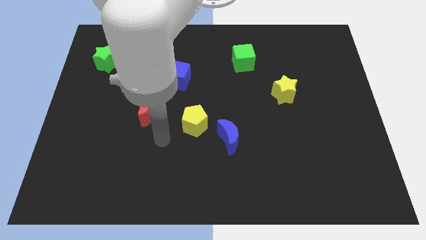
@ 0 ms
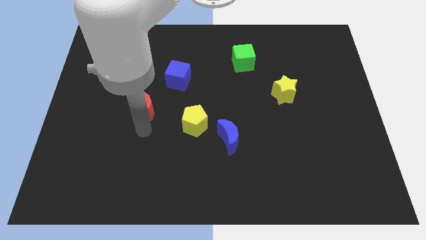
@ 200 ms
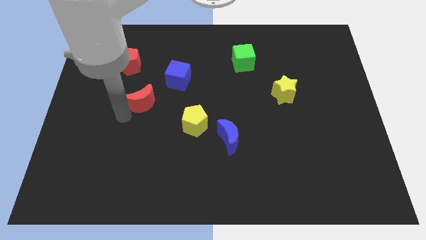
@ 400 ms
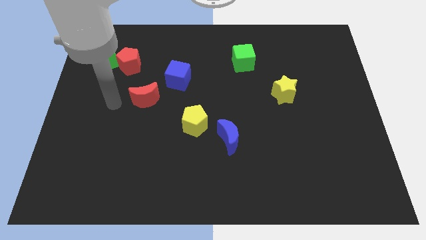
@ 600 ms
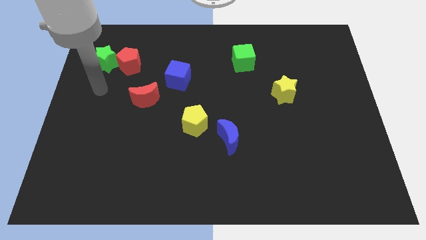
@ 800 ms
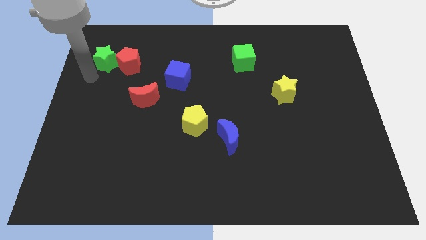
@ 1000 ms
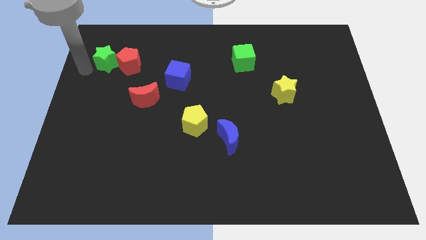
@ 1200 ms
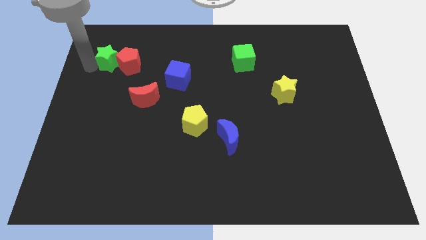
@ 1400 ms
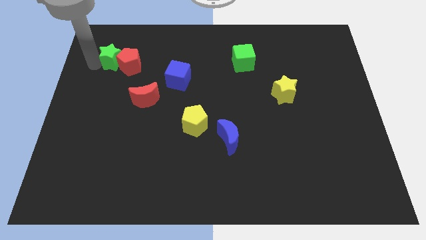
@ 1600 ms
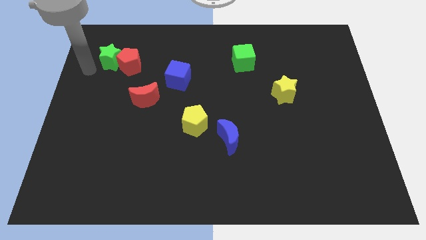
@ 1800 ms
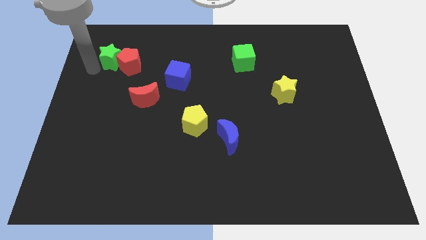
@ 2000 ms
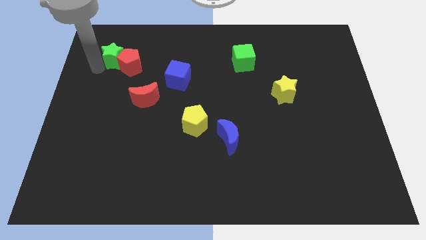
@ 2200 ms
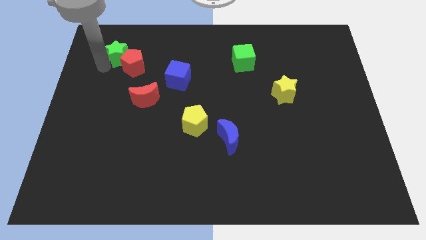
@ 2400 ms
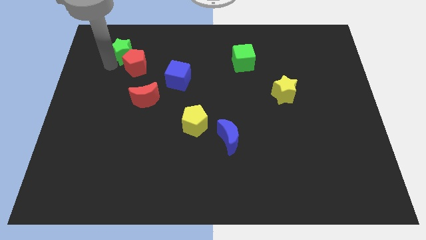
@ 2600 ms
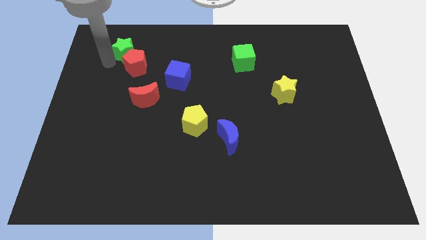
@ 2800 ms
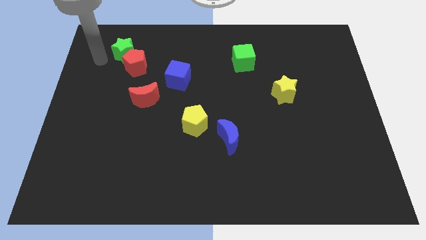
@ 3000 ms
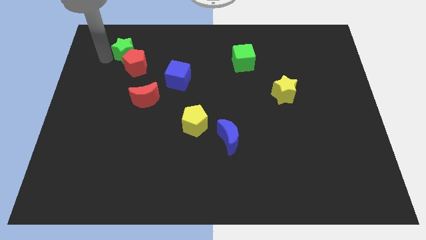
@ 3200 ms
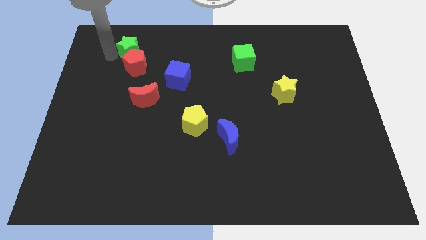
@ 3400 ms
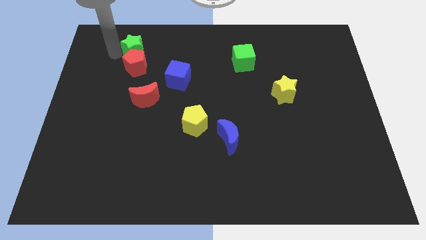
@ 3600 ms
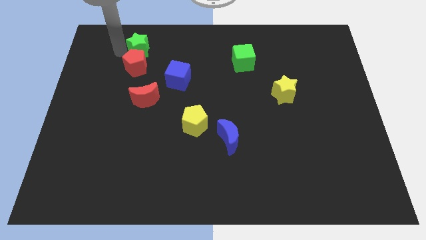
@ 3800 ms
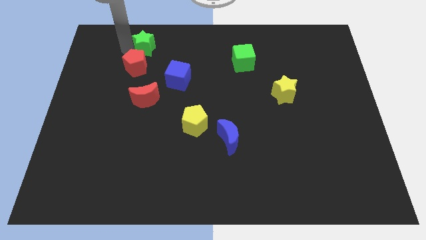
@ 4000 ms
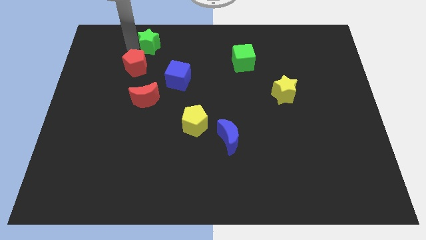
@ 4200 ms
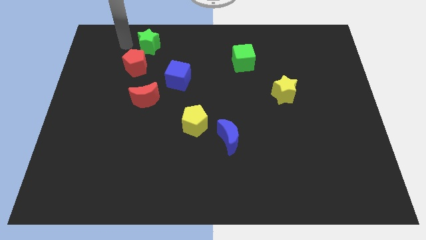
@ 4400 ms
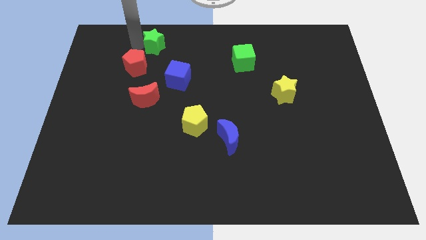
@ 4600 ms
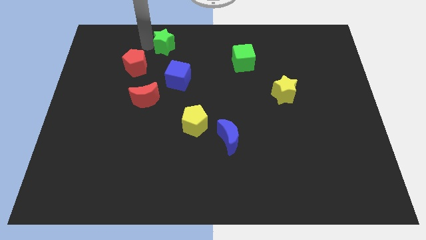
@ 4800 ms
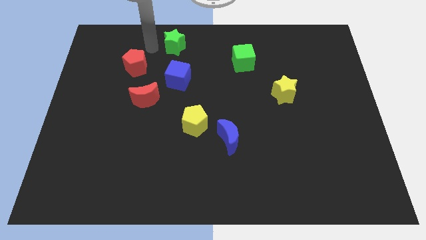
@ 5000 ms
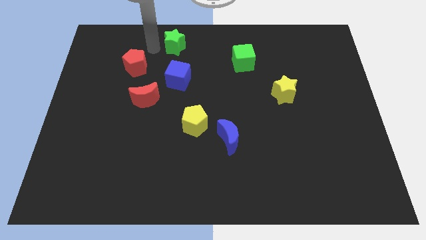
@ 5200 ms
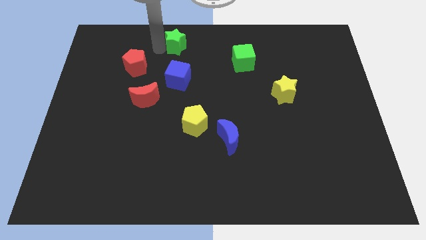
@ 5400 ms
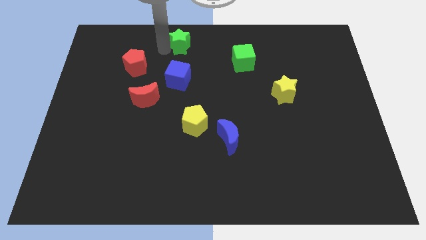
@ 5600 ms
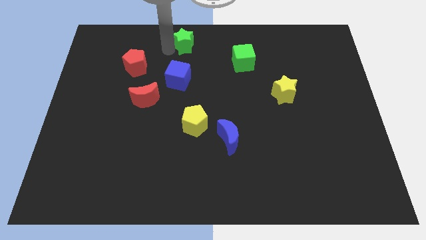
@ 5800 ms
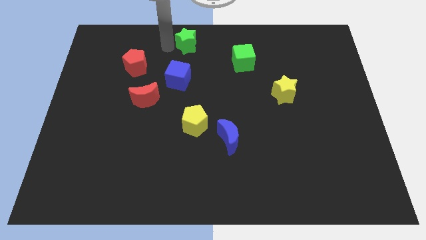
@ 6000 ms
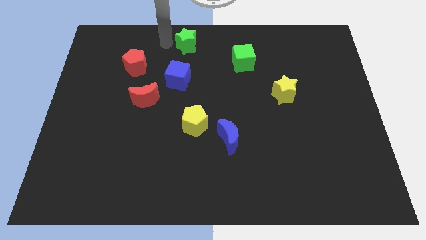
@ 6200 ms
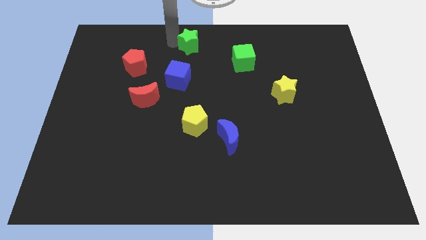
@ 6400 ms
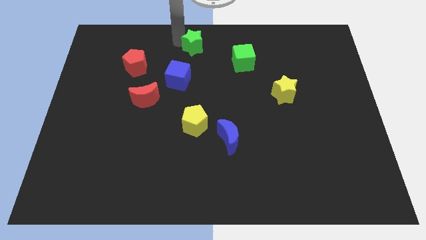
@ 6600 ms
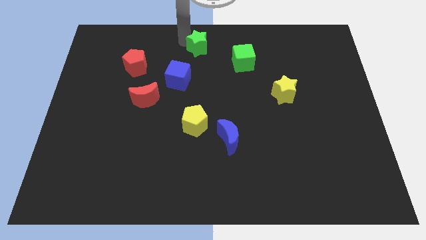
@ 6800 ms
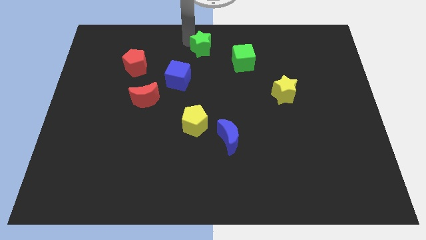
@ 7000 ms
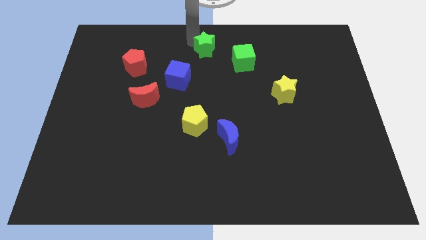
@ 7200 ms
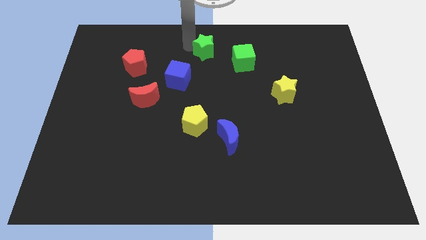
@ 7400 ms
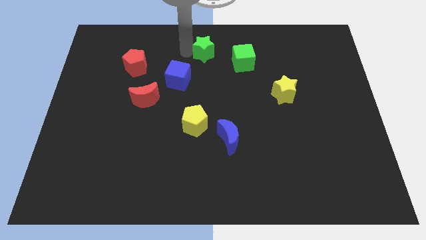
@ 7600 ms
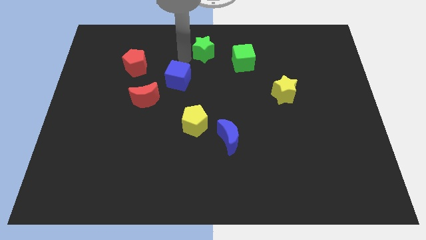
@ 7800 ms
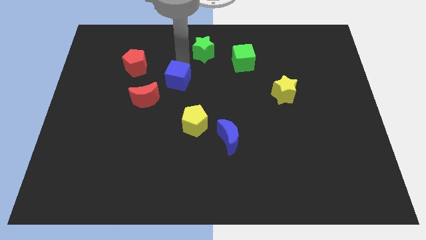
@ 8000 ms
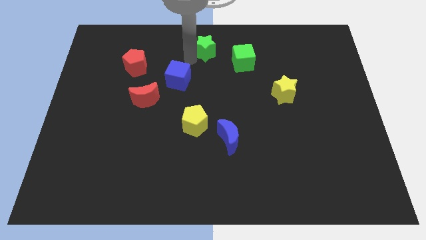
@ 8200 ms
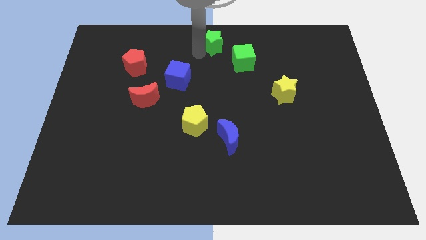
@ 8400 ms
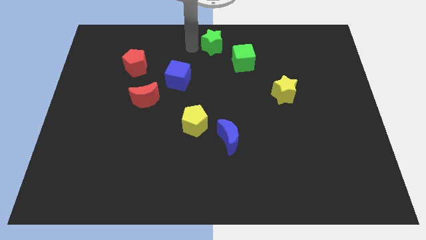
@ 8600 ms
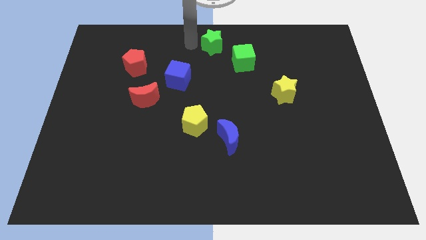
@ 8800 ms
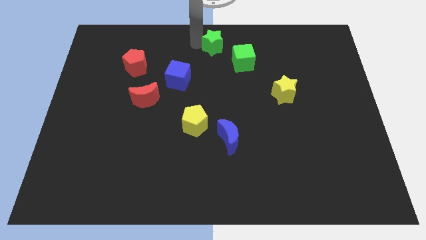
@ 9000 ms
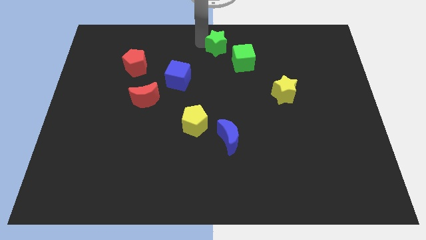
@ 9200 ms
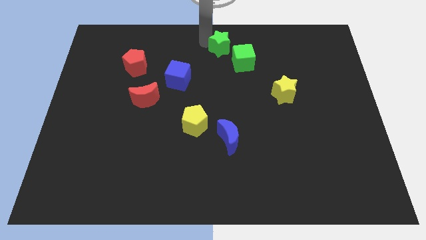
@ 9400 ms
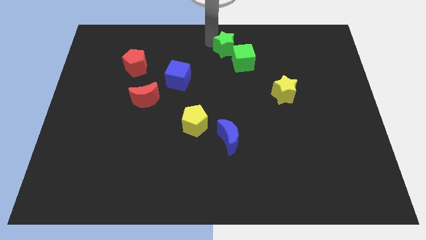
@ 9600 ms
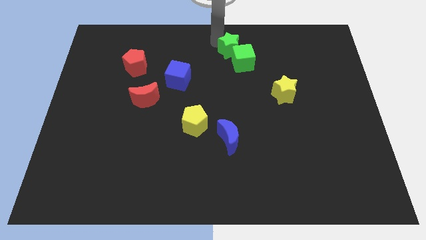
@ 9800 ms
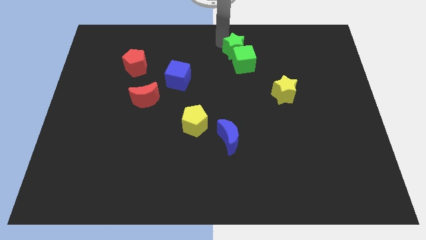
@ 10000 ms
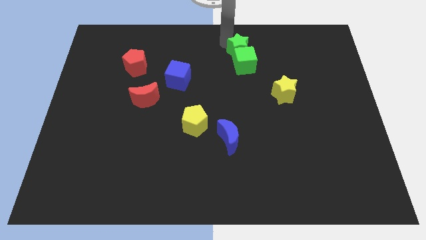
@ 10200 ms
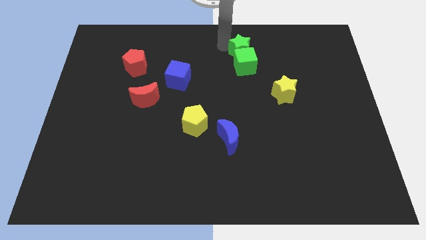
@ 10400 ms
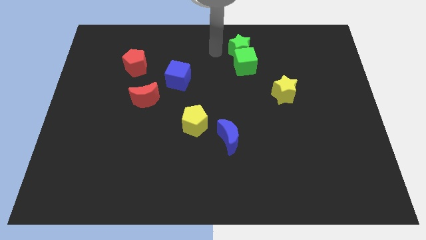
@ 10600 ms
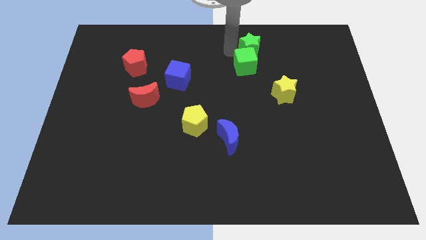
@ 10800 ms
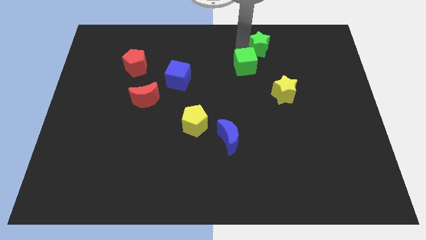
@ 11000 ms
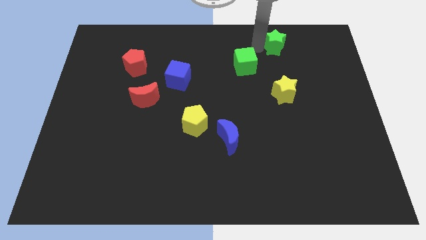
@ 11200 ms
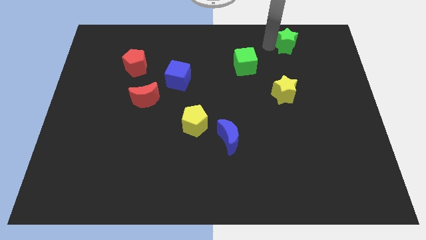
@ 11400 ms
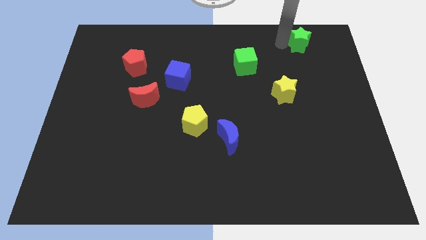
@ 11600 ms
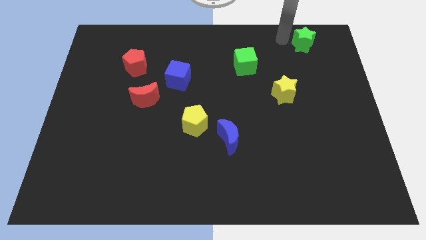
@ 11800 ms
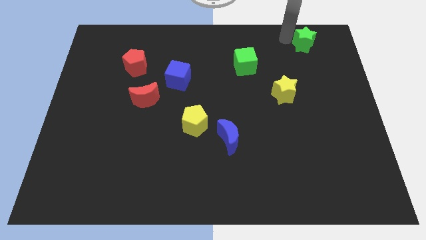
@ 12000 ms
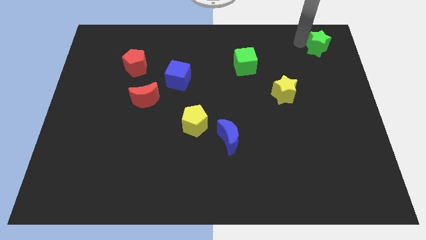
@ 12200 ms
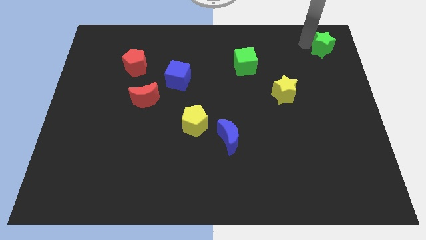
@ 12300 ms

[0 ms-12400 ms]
slide the green star to the top right corner

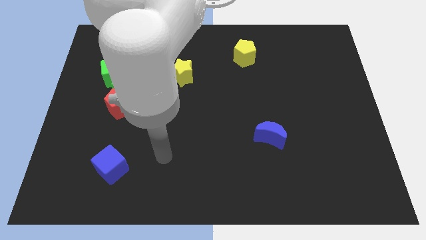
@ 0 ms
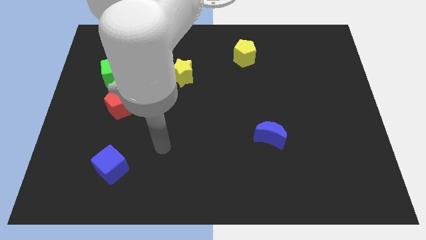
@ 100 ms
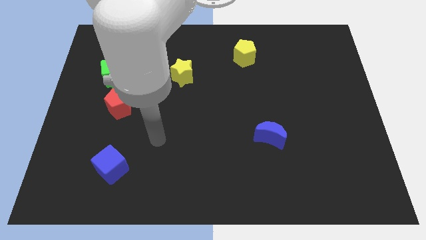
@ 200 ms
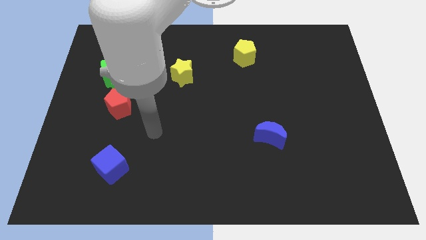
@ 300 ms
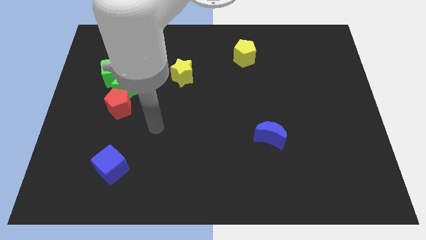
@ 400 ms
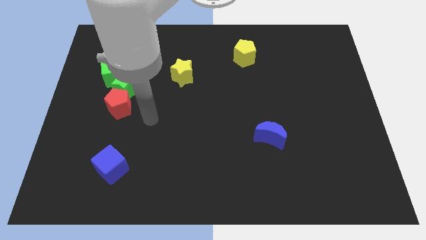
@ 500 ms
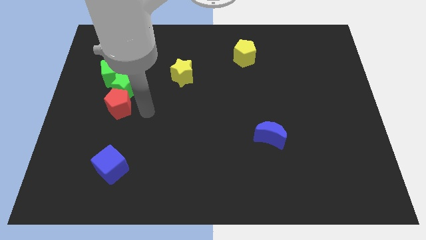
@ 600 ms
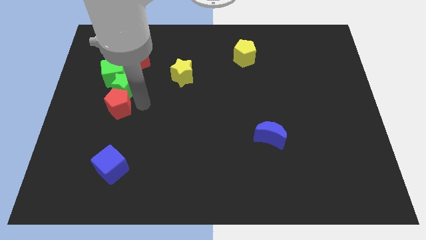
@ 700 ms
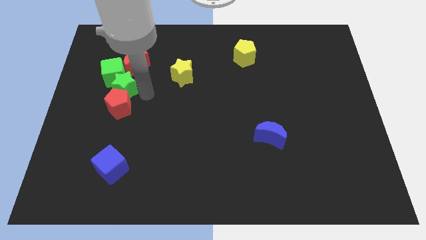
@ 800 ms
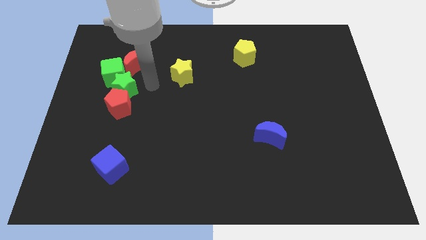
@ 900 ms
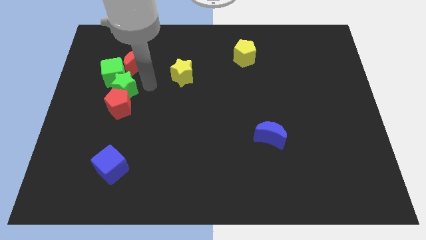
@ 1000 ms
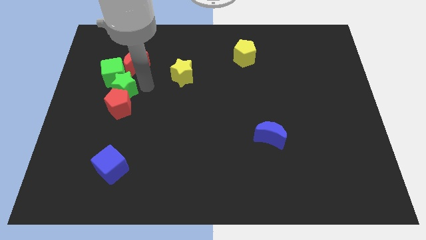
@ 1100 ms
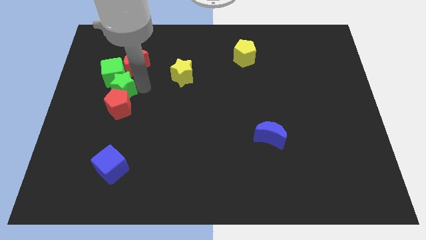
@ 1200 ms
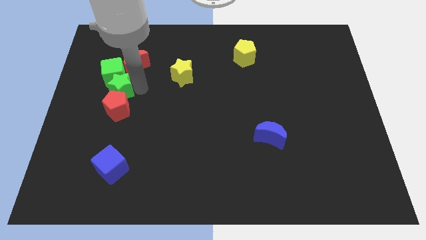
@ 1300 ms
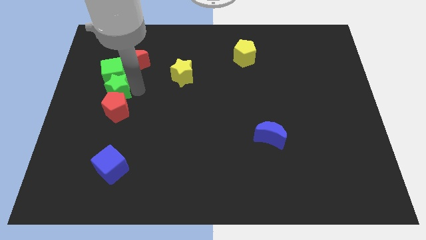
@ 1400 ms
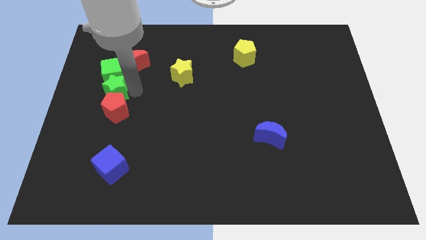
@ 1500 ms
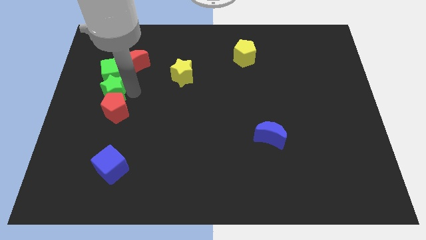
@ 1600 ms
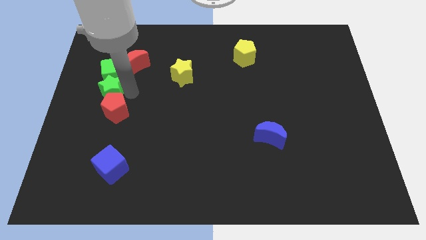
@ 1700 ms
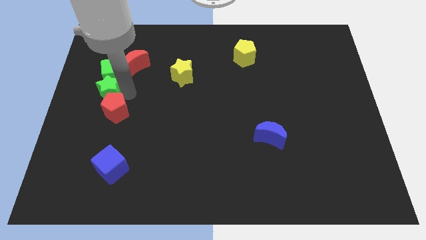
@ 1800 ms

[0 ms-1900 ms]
move the green star to the center left
